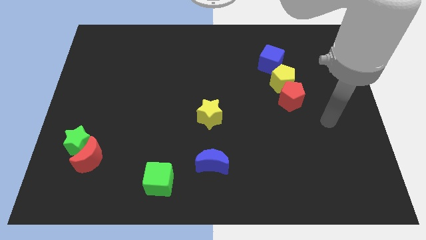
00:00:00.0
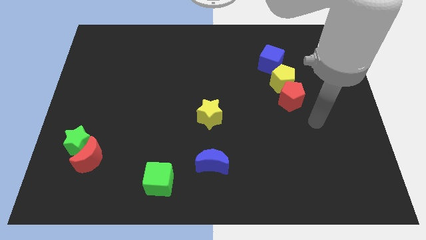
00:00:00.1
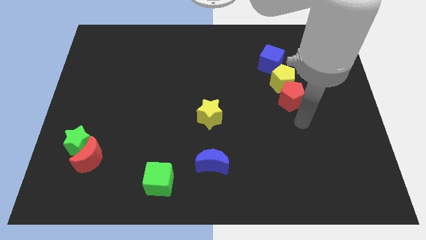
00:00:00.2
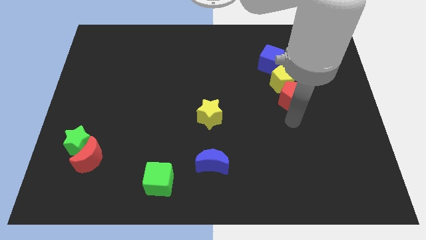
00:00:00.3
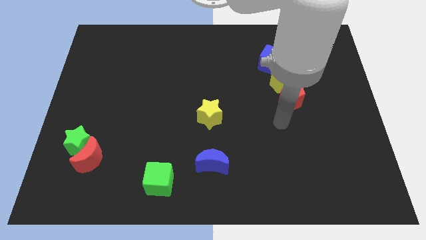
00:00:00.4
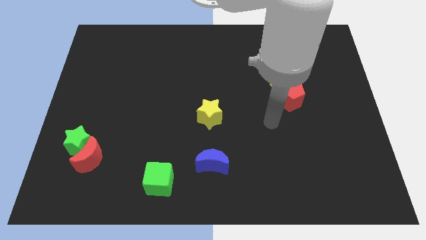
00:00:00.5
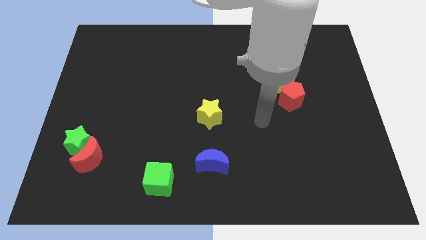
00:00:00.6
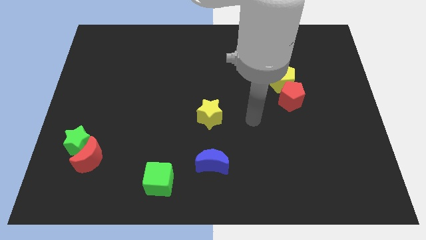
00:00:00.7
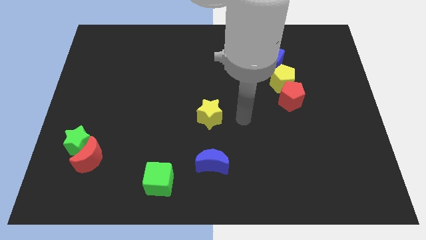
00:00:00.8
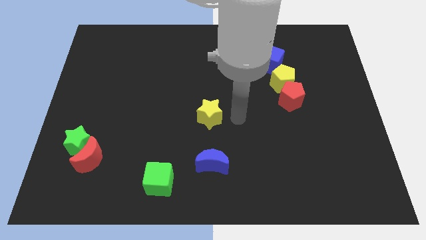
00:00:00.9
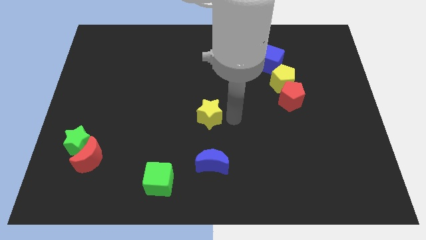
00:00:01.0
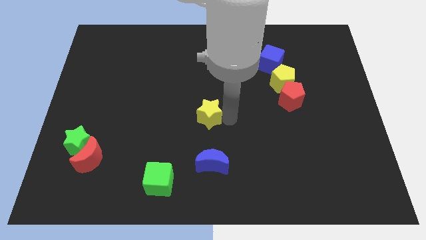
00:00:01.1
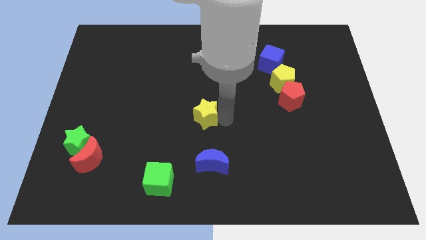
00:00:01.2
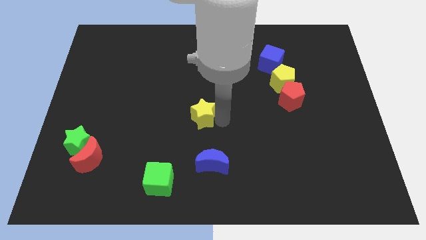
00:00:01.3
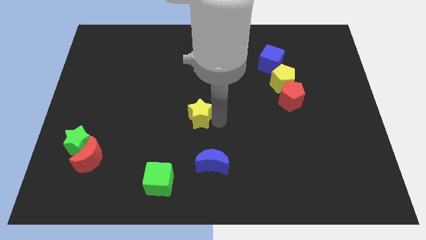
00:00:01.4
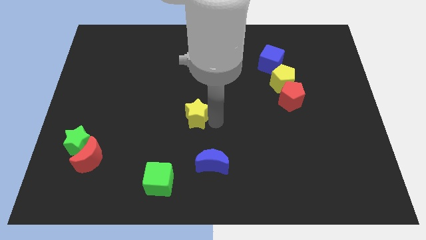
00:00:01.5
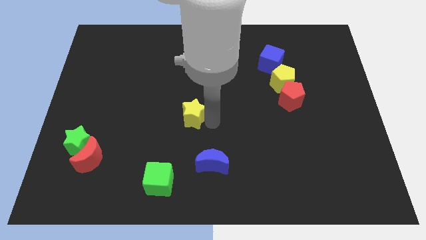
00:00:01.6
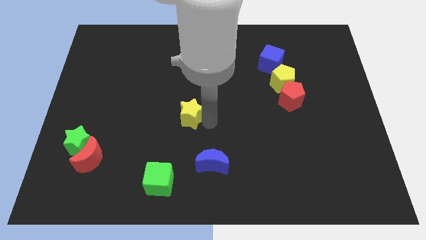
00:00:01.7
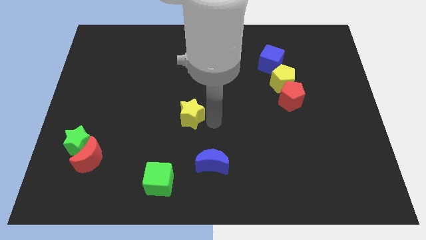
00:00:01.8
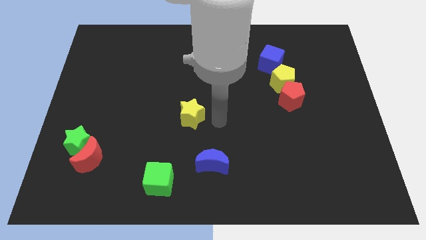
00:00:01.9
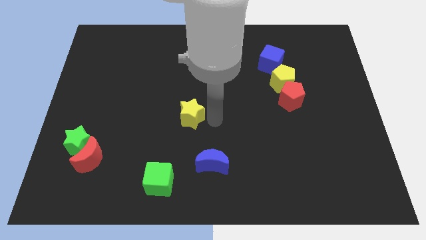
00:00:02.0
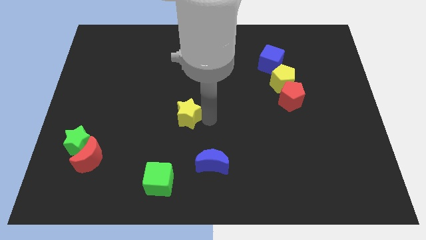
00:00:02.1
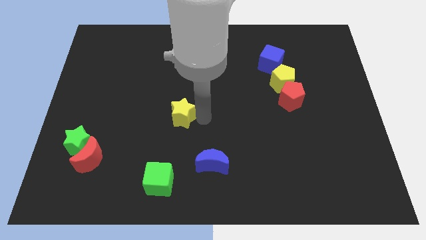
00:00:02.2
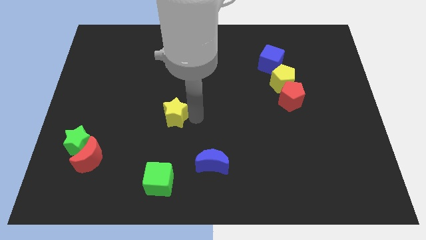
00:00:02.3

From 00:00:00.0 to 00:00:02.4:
slide the yellow star left a bit

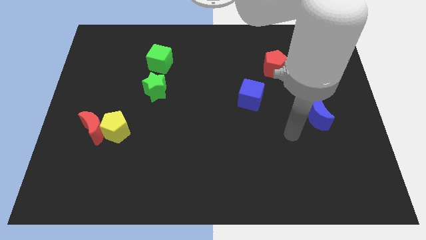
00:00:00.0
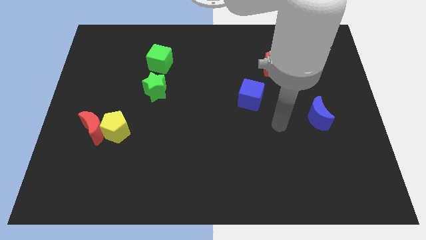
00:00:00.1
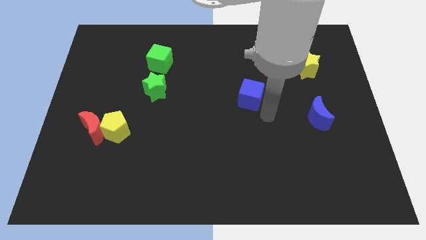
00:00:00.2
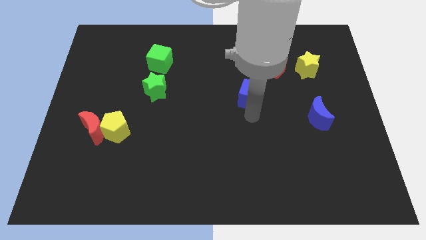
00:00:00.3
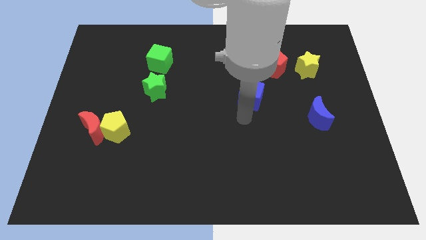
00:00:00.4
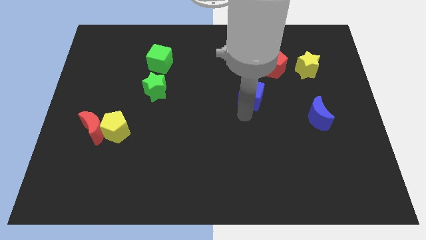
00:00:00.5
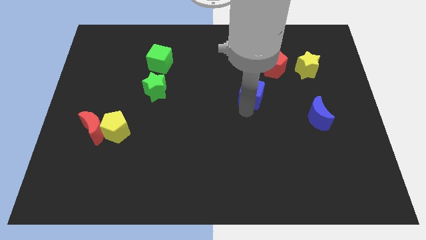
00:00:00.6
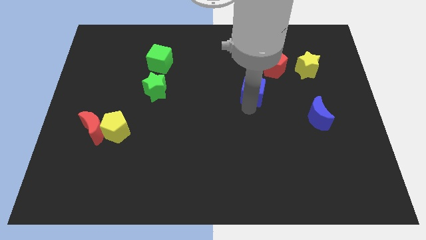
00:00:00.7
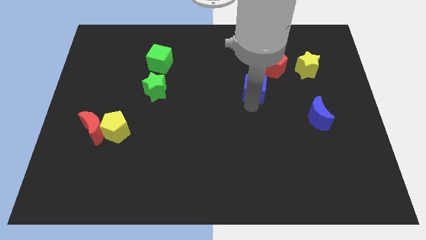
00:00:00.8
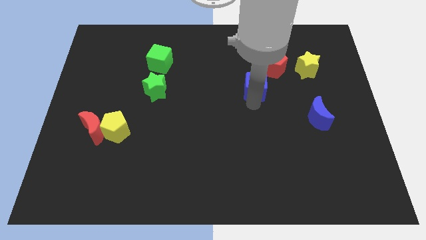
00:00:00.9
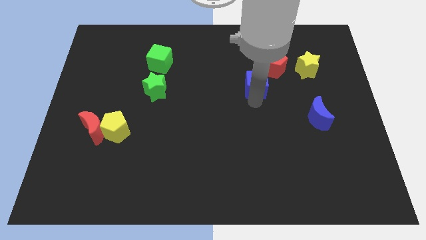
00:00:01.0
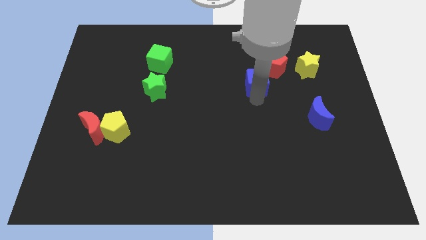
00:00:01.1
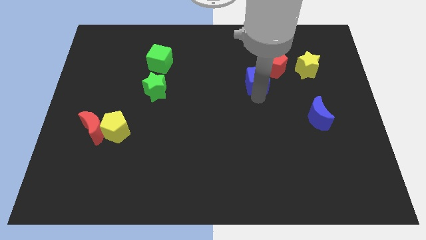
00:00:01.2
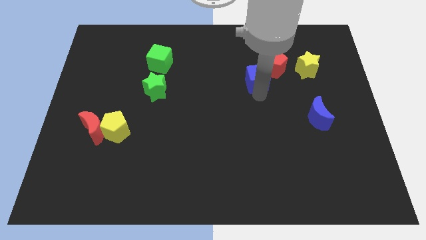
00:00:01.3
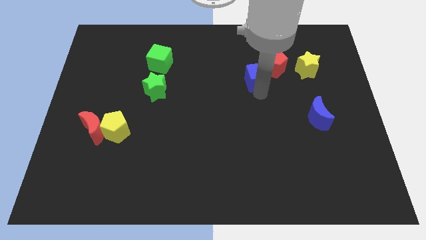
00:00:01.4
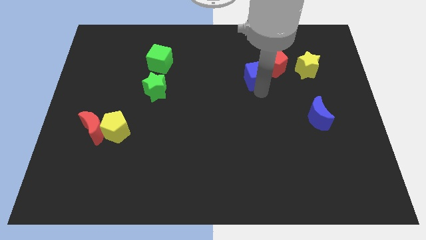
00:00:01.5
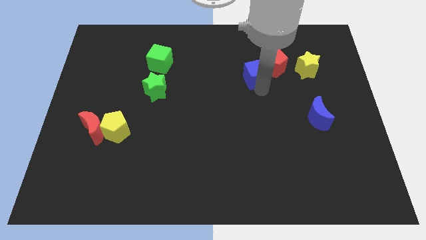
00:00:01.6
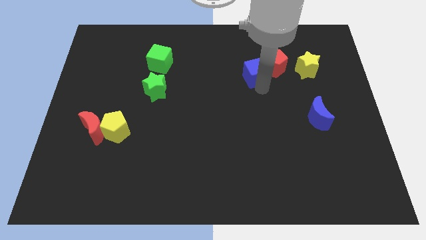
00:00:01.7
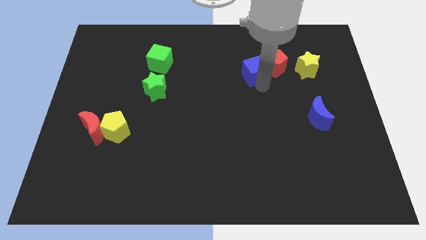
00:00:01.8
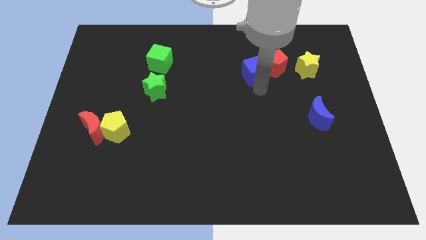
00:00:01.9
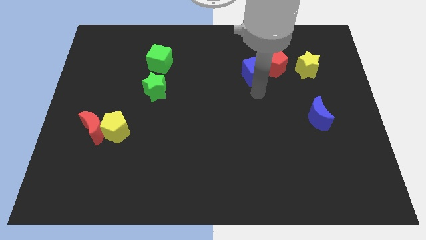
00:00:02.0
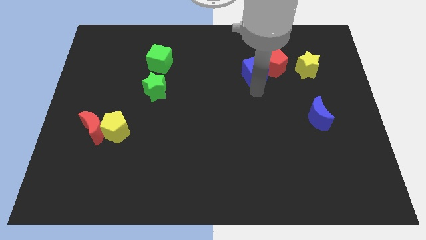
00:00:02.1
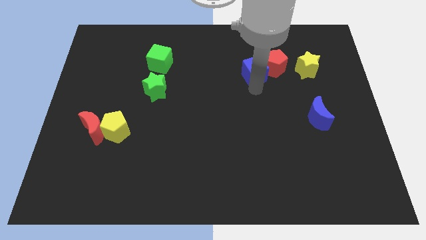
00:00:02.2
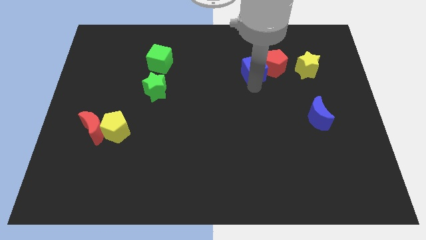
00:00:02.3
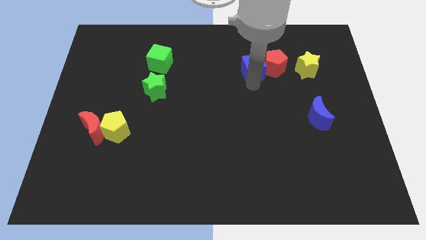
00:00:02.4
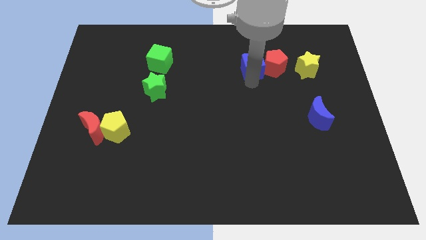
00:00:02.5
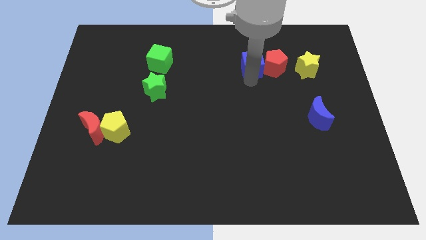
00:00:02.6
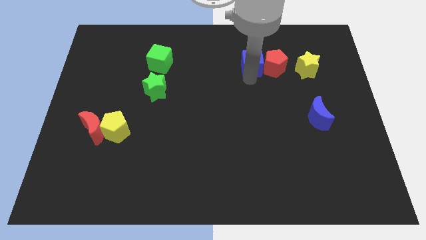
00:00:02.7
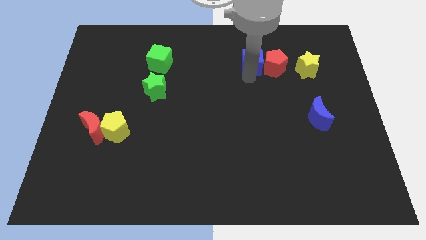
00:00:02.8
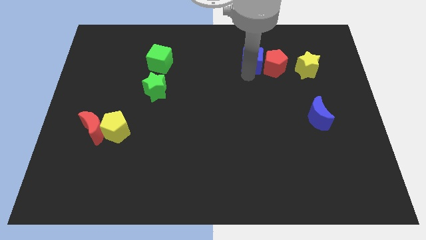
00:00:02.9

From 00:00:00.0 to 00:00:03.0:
move the blue cube a little bit upwards and to the right diagonally

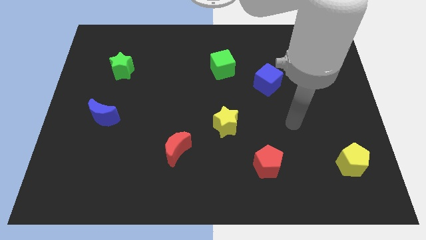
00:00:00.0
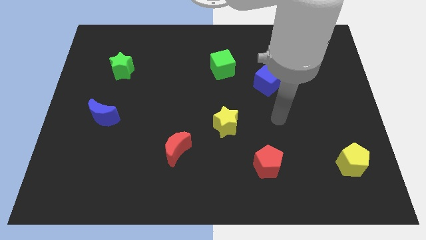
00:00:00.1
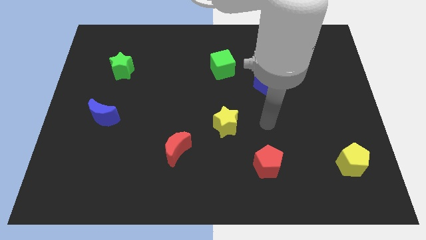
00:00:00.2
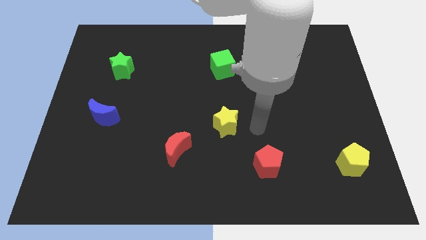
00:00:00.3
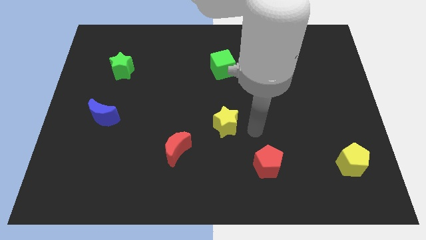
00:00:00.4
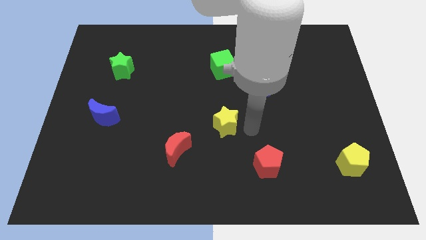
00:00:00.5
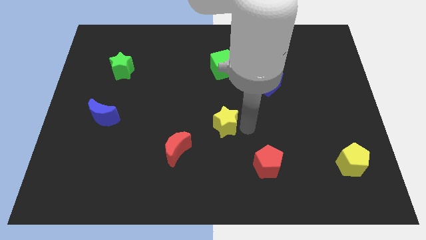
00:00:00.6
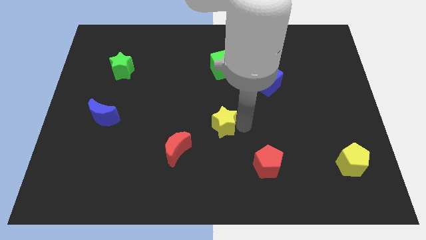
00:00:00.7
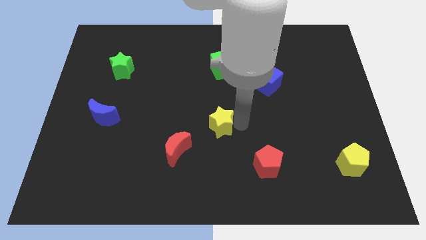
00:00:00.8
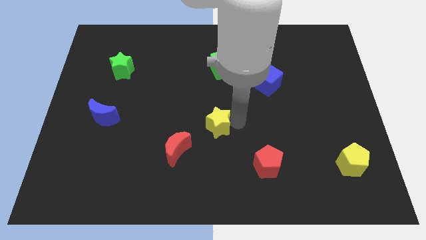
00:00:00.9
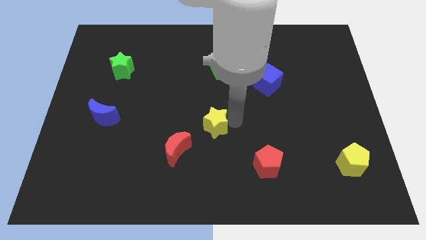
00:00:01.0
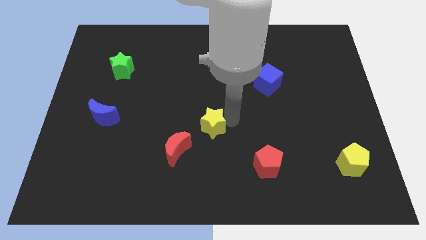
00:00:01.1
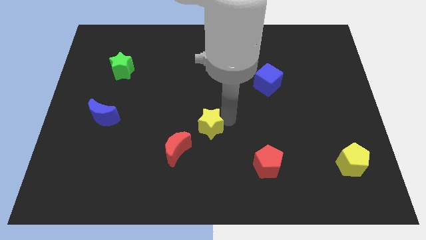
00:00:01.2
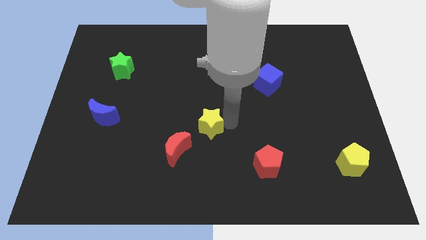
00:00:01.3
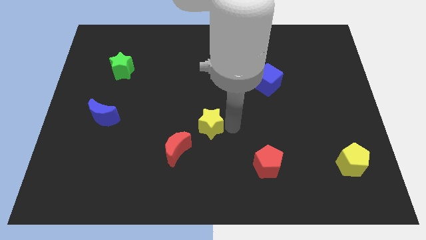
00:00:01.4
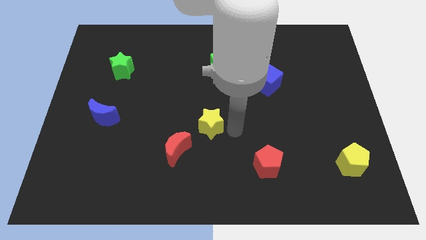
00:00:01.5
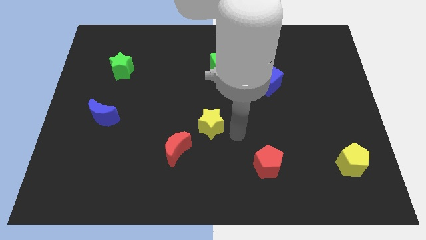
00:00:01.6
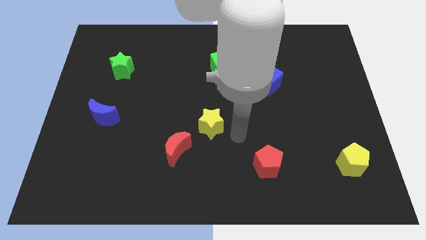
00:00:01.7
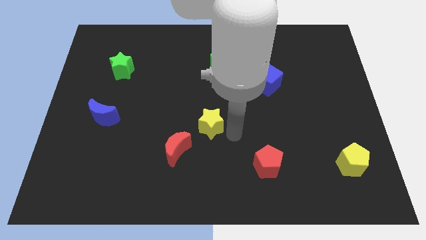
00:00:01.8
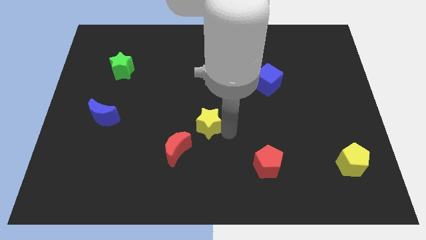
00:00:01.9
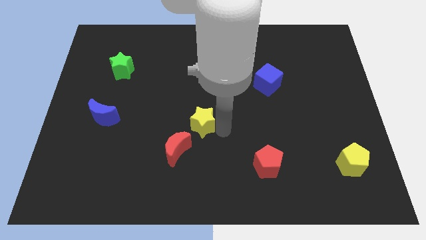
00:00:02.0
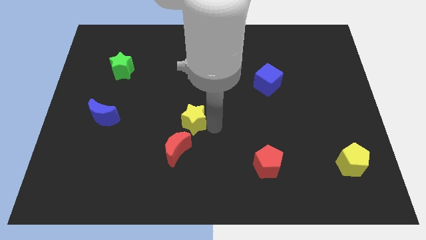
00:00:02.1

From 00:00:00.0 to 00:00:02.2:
move the yellow star to the left somewhat

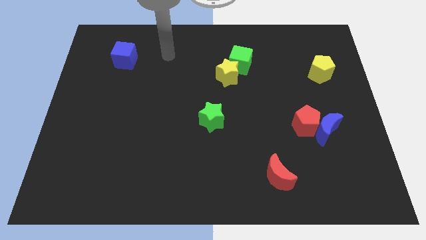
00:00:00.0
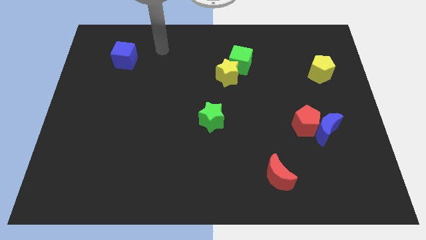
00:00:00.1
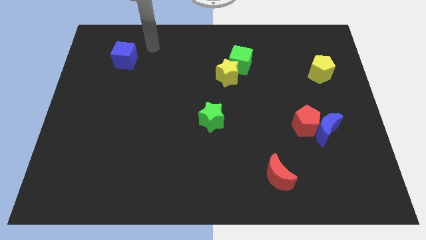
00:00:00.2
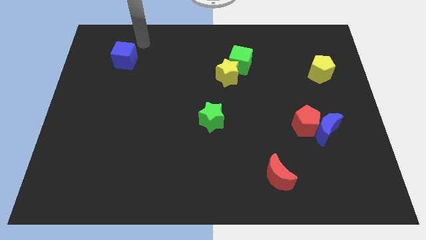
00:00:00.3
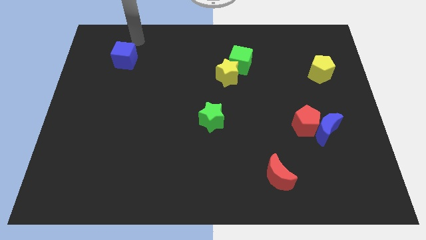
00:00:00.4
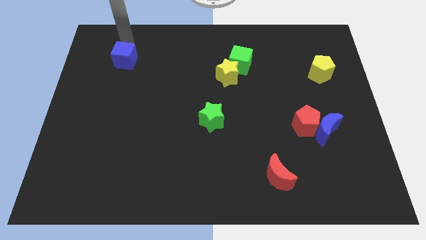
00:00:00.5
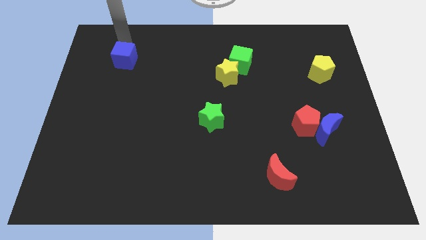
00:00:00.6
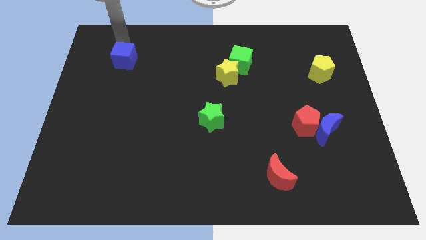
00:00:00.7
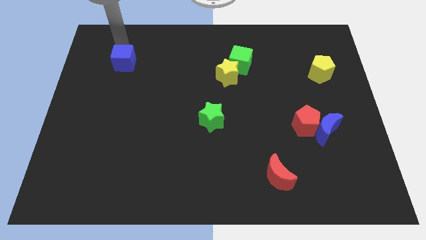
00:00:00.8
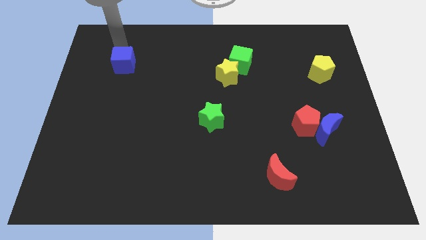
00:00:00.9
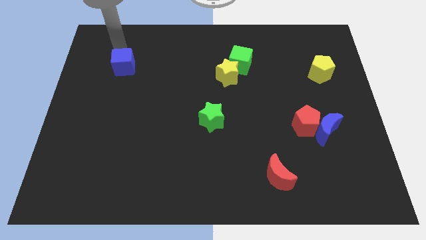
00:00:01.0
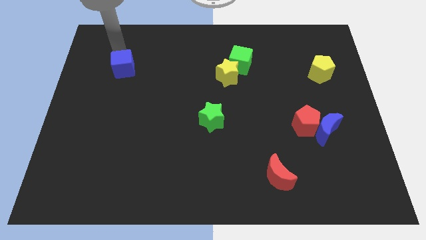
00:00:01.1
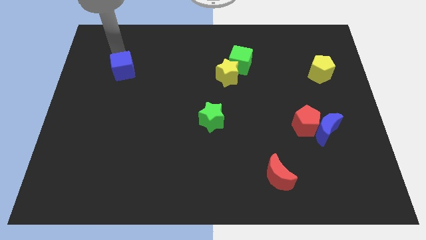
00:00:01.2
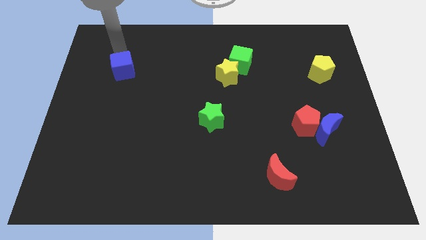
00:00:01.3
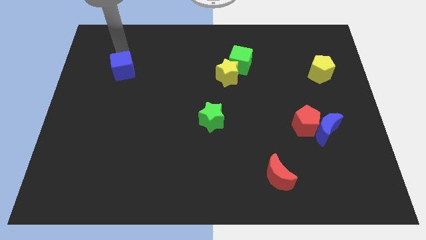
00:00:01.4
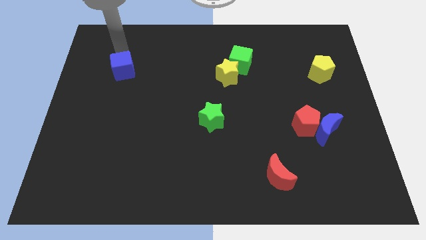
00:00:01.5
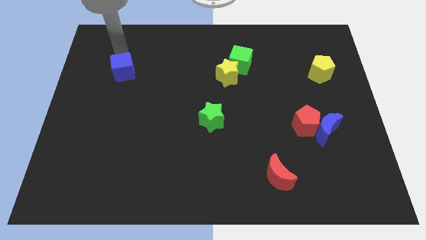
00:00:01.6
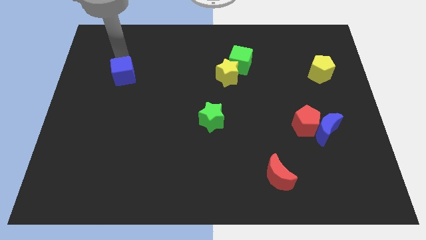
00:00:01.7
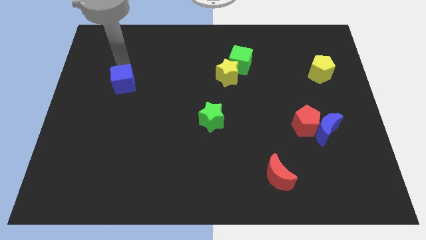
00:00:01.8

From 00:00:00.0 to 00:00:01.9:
push the blue cube a little bit down
